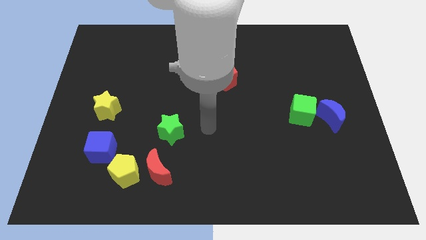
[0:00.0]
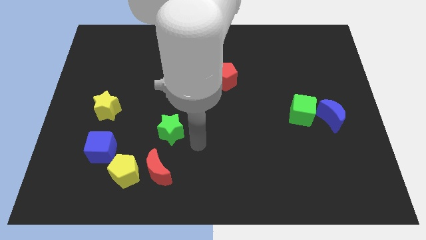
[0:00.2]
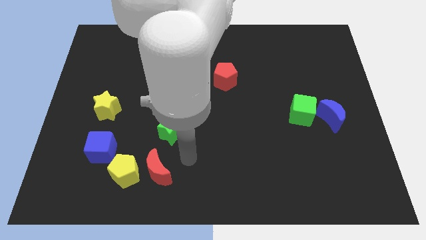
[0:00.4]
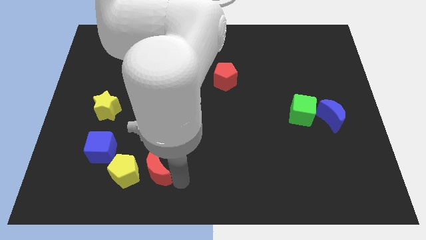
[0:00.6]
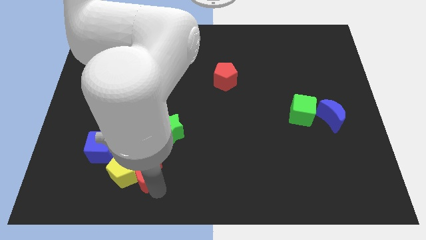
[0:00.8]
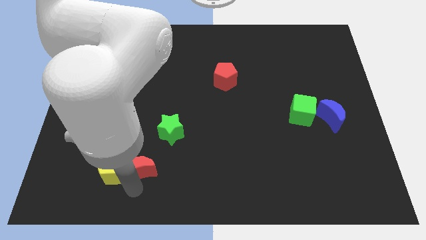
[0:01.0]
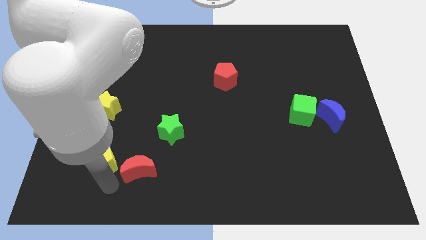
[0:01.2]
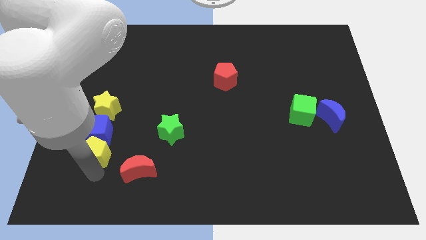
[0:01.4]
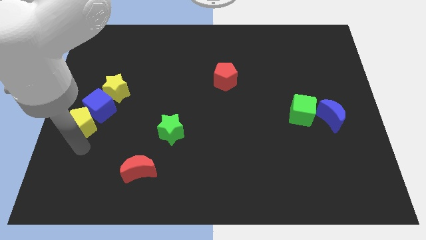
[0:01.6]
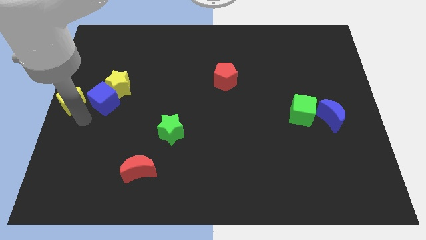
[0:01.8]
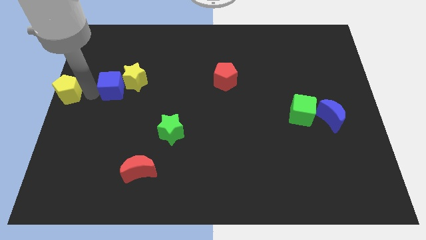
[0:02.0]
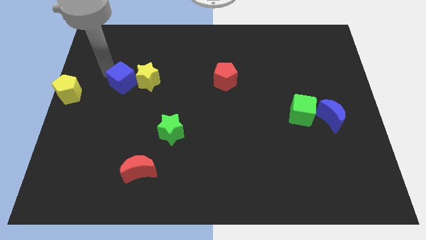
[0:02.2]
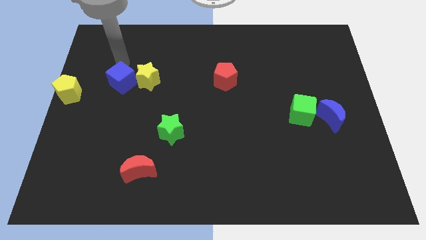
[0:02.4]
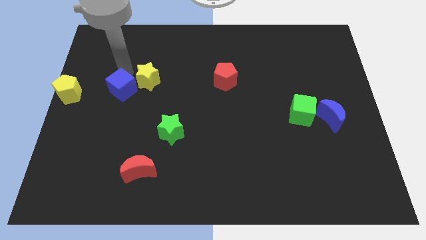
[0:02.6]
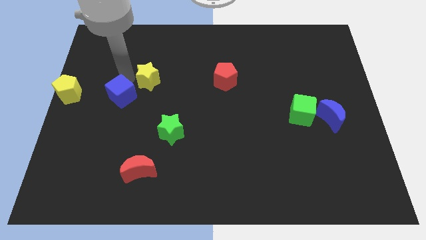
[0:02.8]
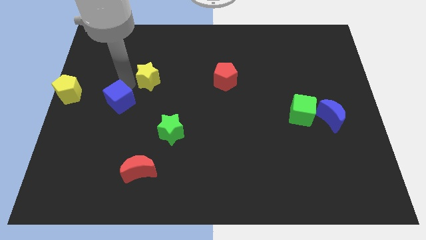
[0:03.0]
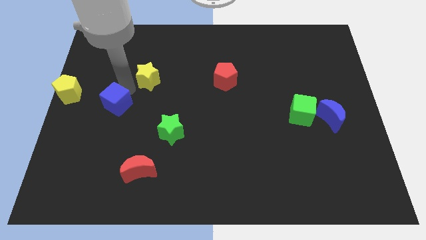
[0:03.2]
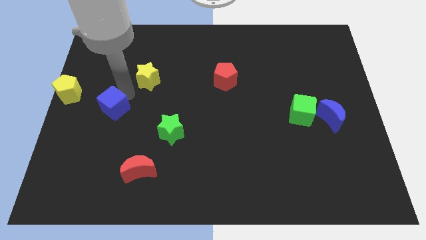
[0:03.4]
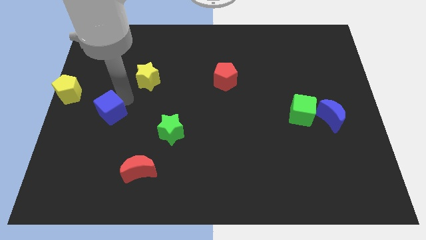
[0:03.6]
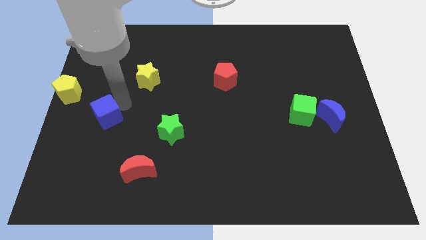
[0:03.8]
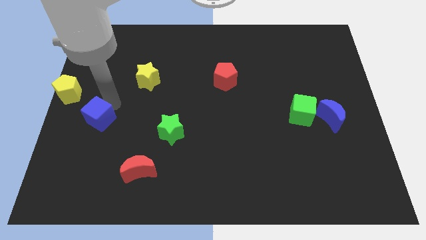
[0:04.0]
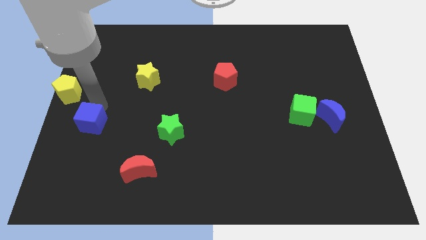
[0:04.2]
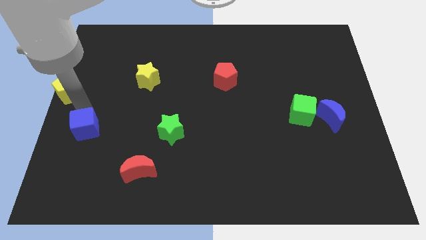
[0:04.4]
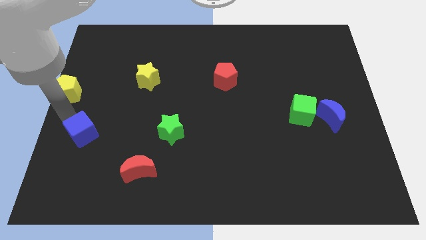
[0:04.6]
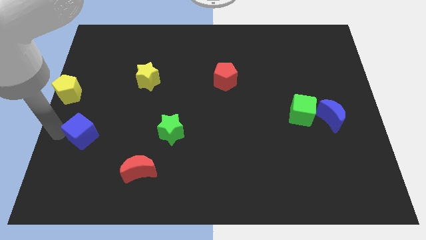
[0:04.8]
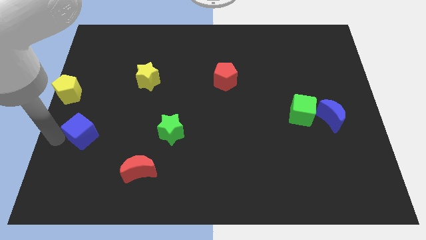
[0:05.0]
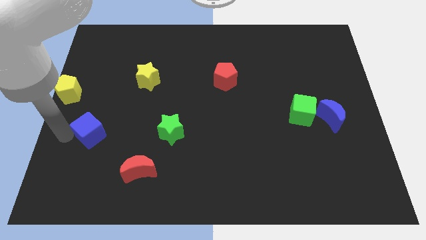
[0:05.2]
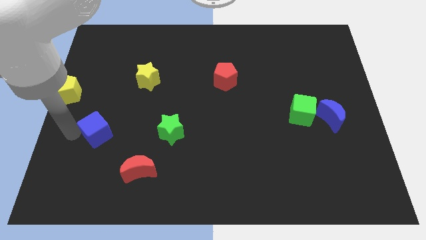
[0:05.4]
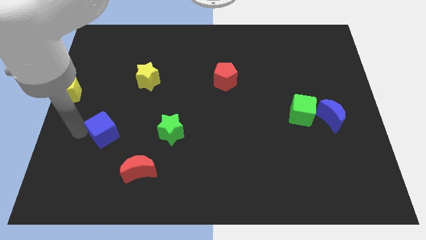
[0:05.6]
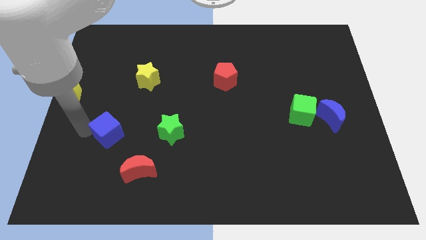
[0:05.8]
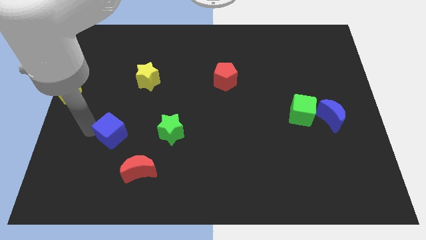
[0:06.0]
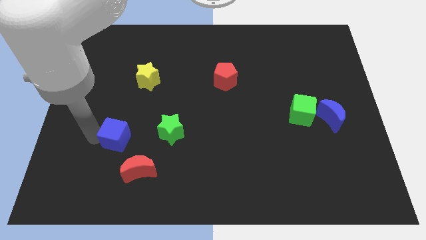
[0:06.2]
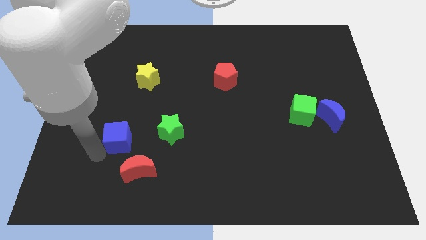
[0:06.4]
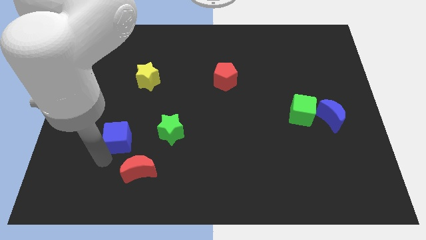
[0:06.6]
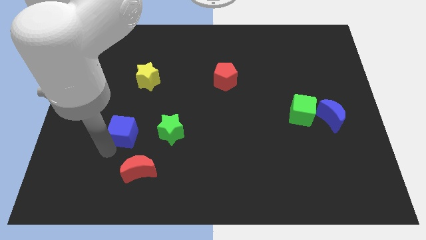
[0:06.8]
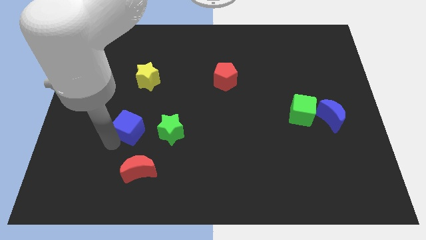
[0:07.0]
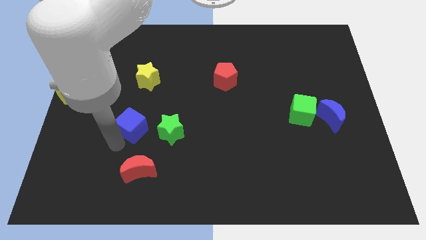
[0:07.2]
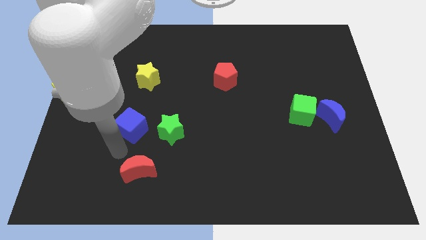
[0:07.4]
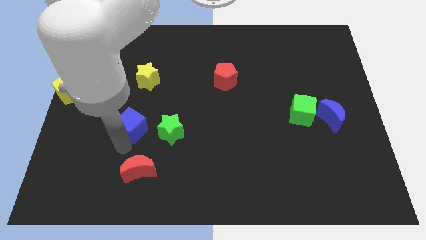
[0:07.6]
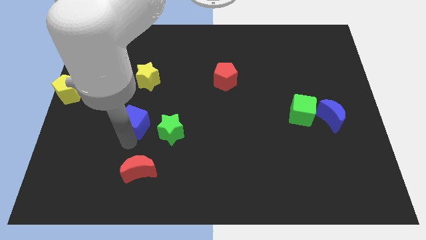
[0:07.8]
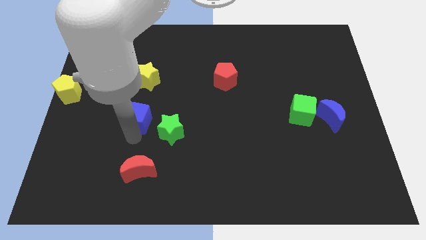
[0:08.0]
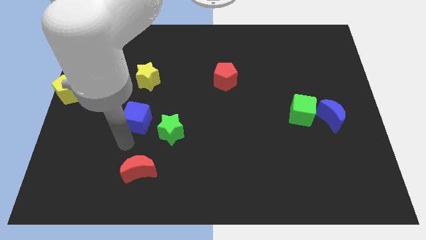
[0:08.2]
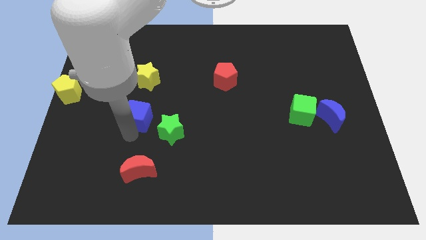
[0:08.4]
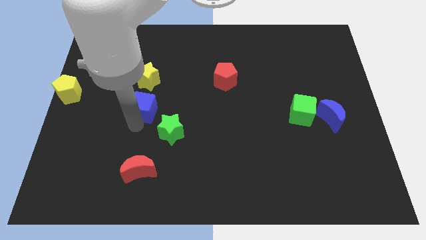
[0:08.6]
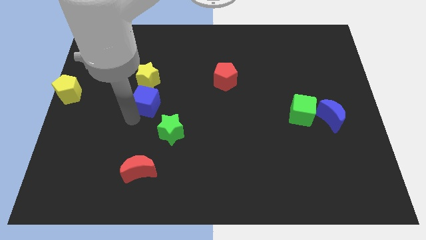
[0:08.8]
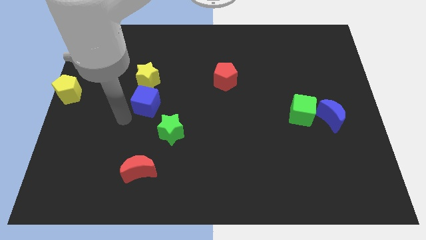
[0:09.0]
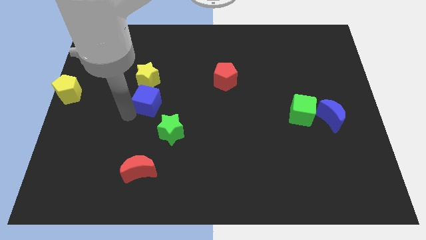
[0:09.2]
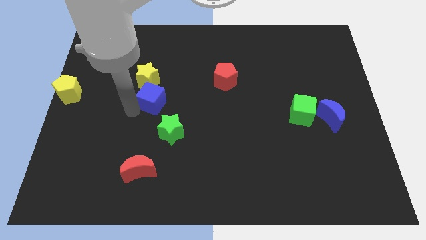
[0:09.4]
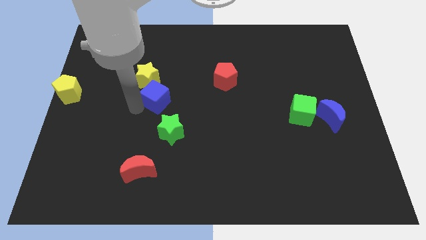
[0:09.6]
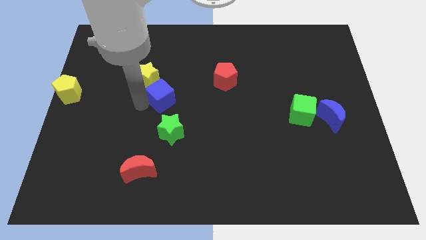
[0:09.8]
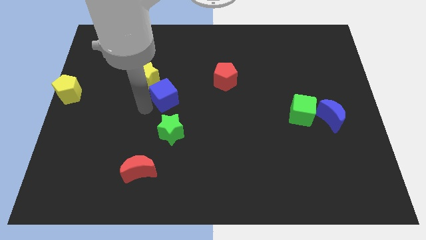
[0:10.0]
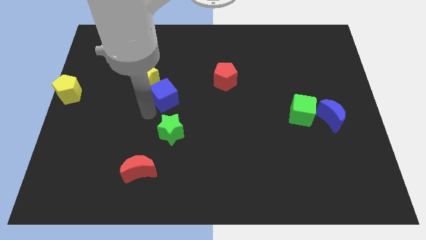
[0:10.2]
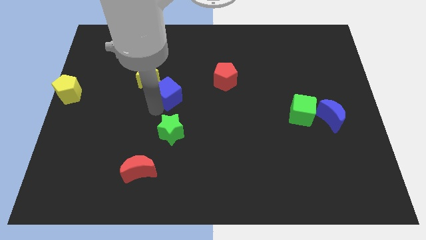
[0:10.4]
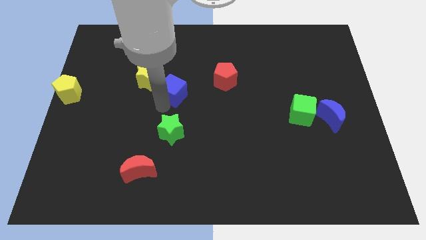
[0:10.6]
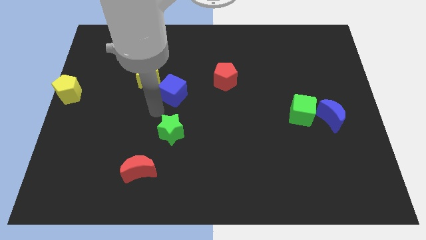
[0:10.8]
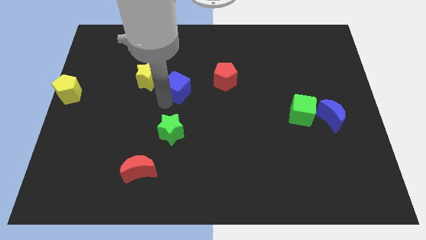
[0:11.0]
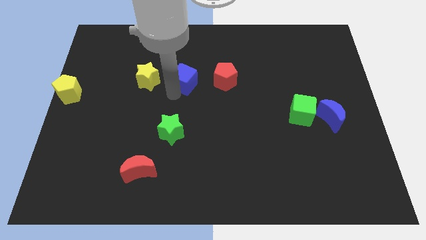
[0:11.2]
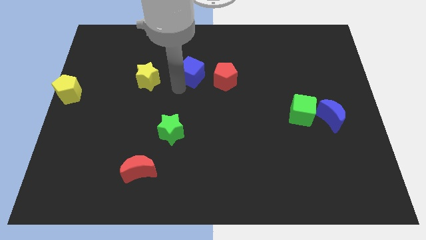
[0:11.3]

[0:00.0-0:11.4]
move the blue cube to the top left of the red pentagon

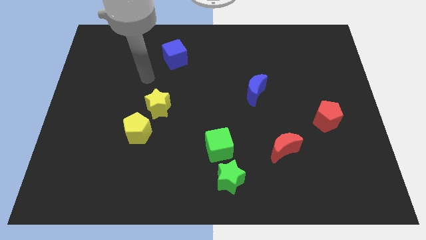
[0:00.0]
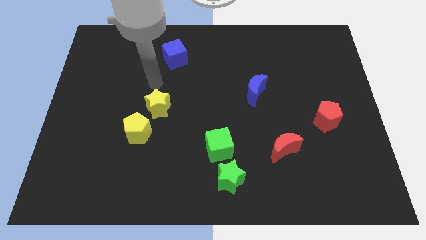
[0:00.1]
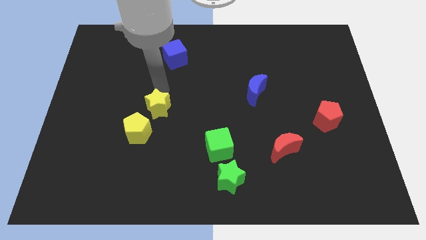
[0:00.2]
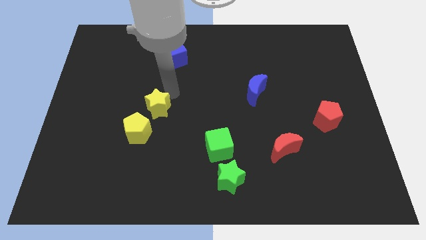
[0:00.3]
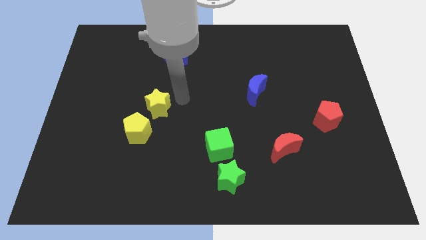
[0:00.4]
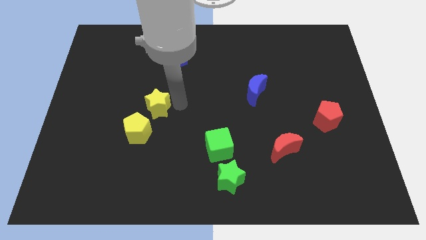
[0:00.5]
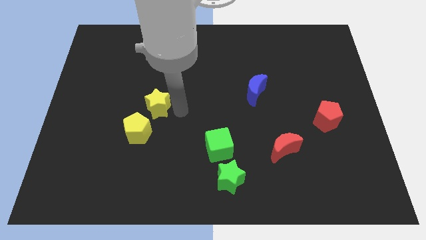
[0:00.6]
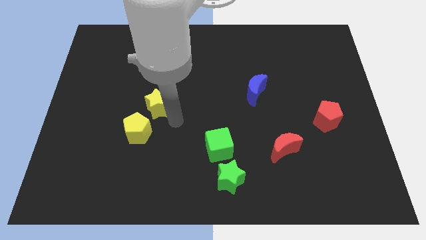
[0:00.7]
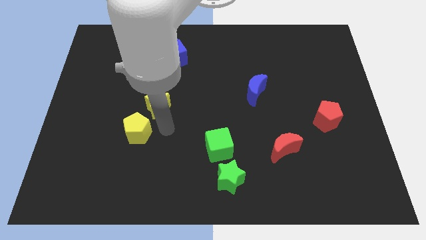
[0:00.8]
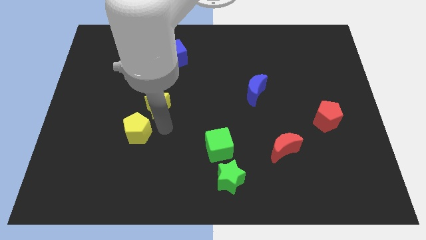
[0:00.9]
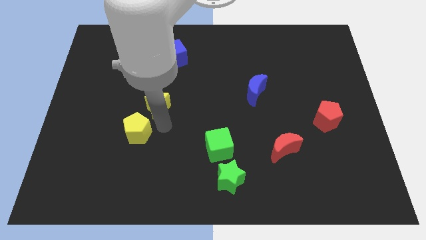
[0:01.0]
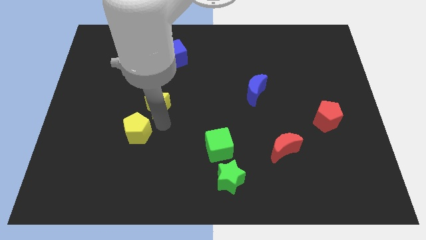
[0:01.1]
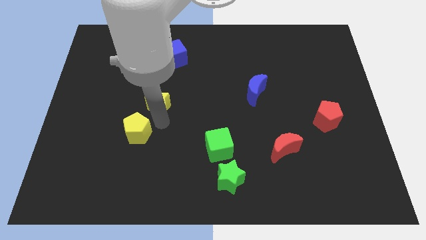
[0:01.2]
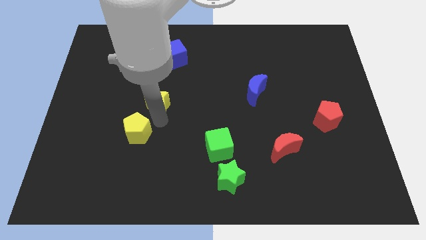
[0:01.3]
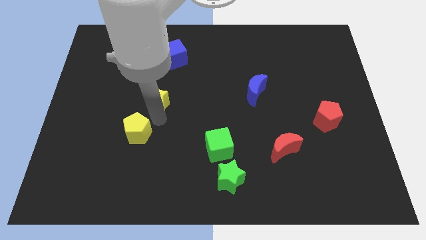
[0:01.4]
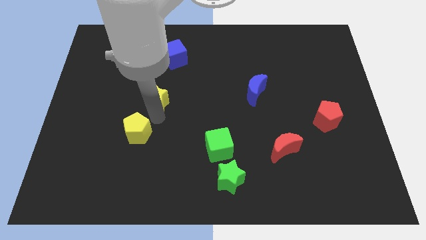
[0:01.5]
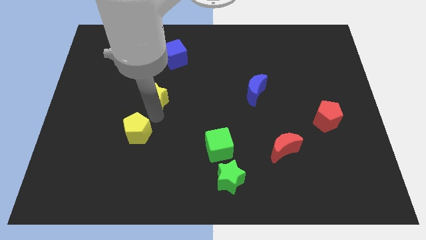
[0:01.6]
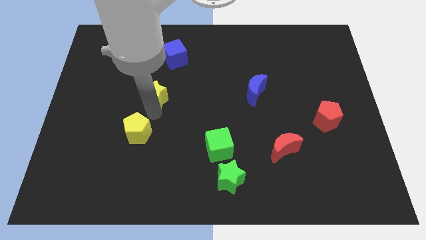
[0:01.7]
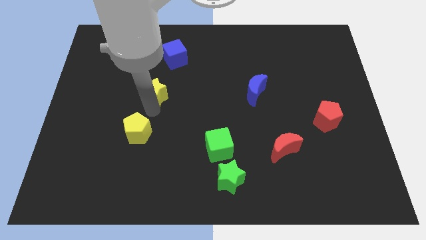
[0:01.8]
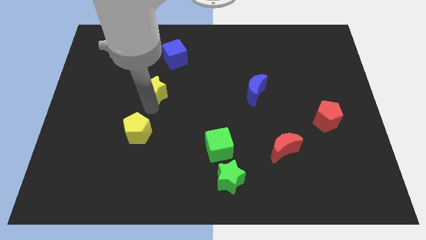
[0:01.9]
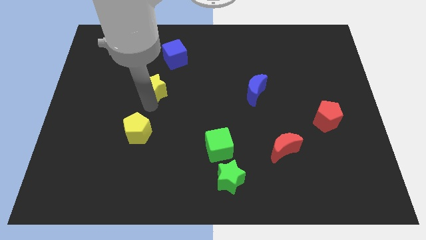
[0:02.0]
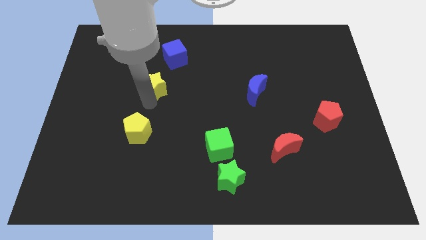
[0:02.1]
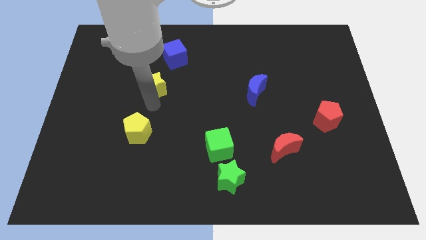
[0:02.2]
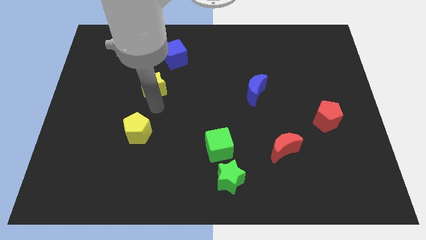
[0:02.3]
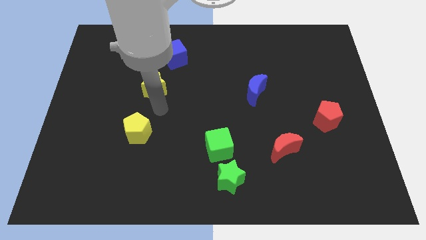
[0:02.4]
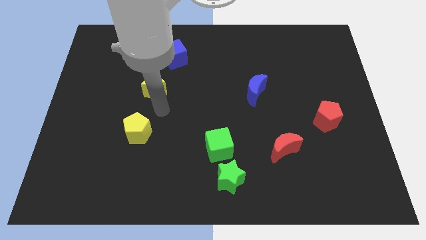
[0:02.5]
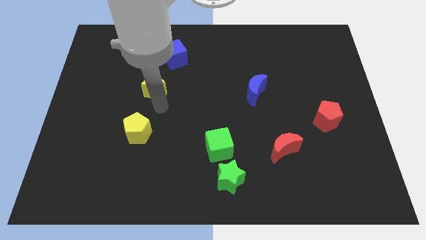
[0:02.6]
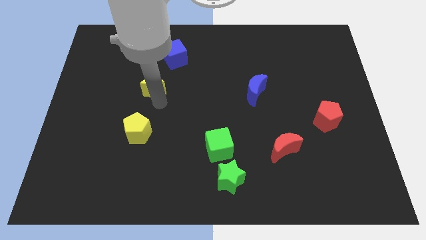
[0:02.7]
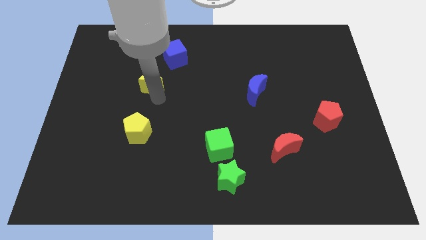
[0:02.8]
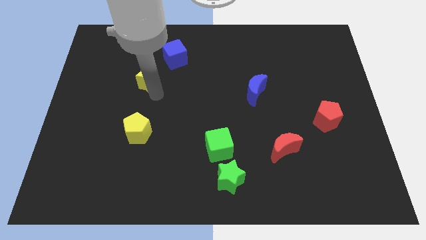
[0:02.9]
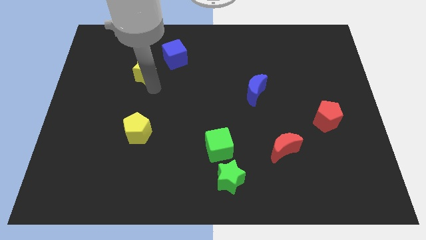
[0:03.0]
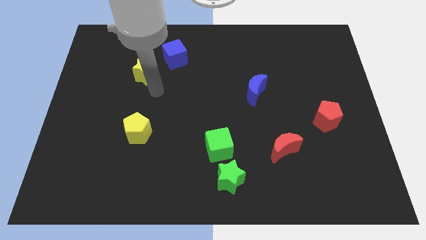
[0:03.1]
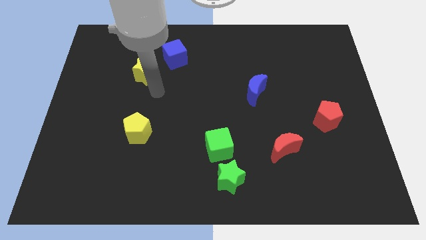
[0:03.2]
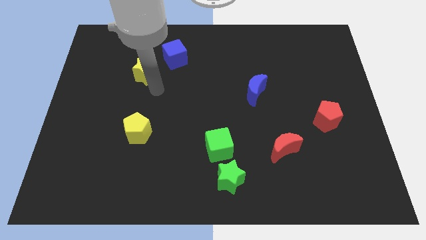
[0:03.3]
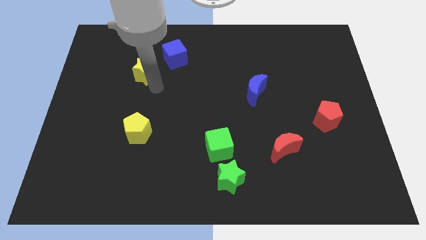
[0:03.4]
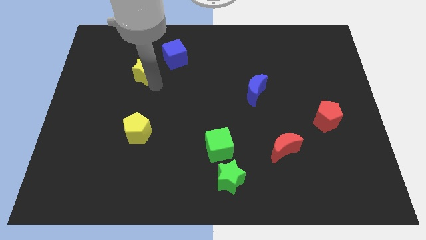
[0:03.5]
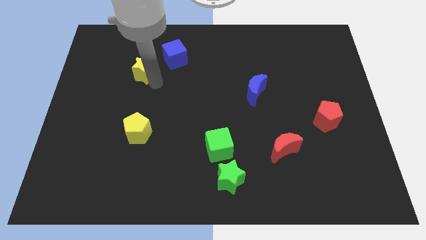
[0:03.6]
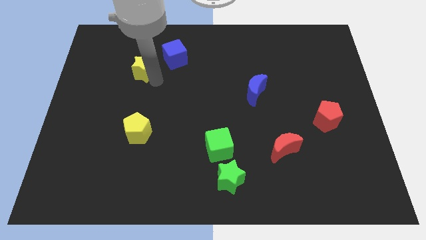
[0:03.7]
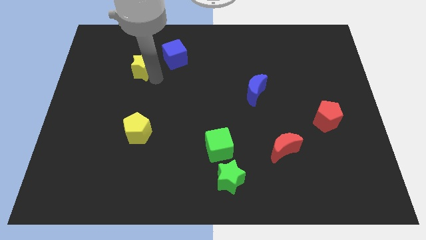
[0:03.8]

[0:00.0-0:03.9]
move the yellow star to the left of the blue cube
